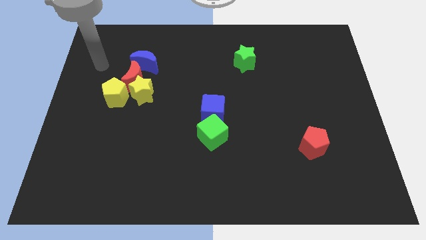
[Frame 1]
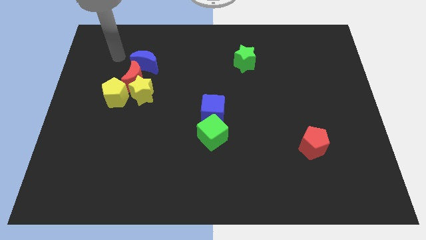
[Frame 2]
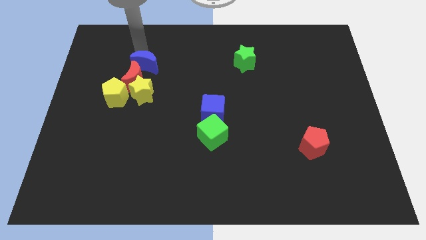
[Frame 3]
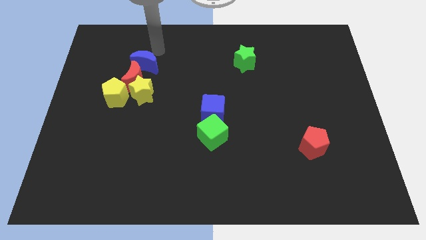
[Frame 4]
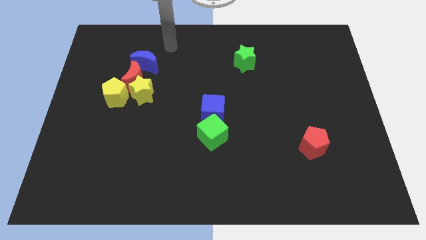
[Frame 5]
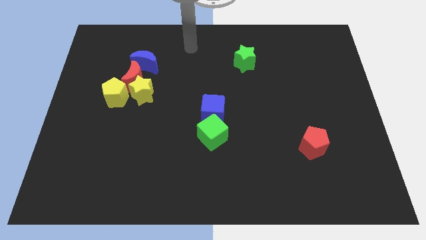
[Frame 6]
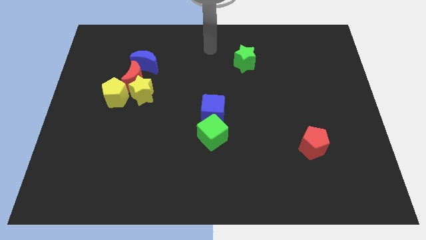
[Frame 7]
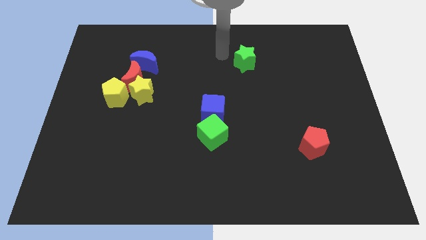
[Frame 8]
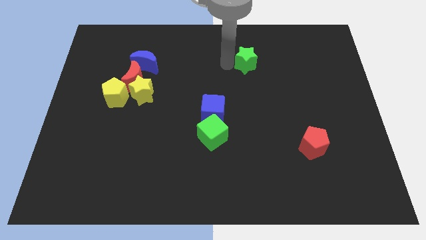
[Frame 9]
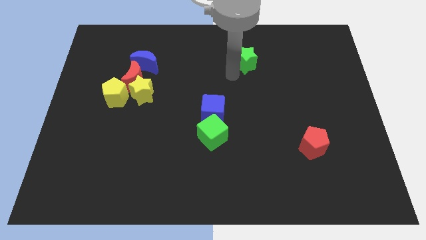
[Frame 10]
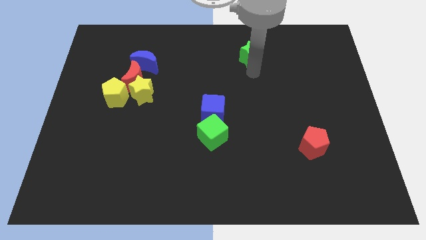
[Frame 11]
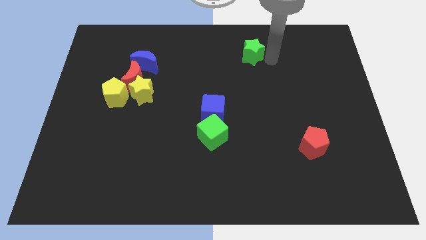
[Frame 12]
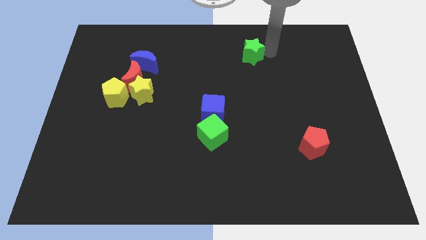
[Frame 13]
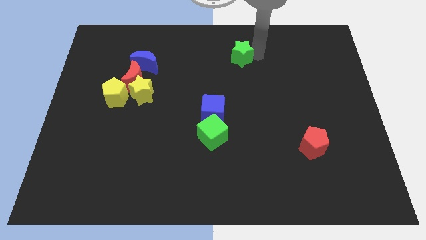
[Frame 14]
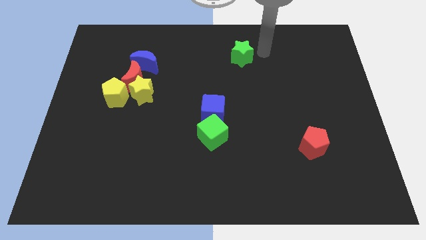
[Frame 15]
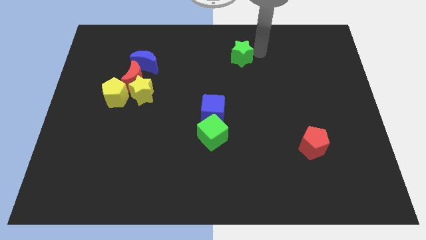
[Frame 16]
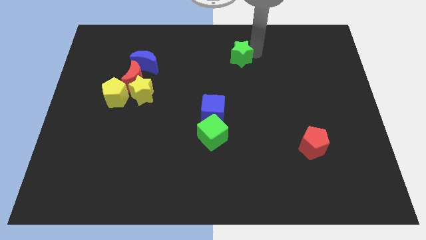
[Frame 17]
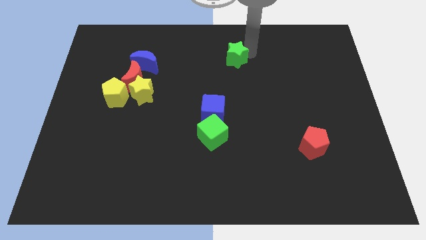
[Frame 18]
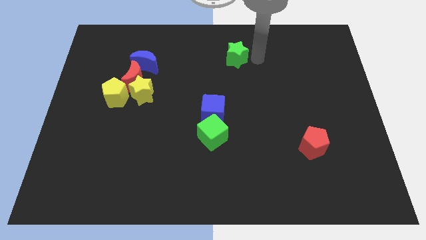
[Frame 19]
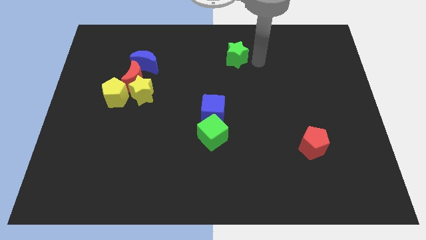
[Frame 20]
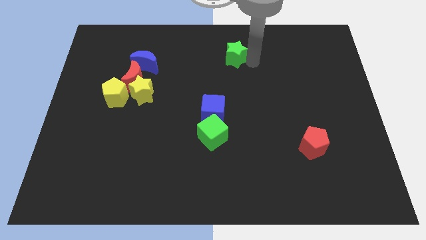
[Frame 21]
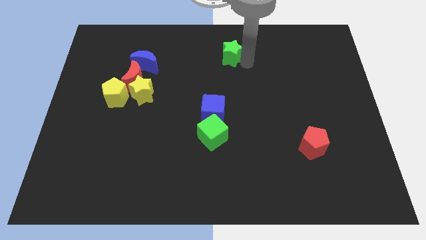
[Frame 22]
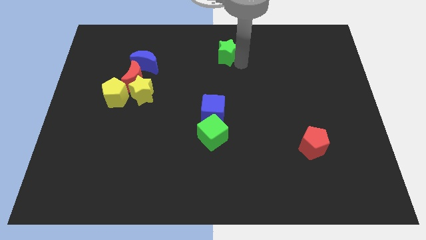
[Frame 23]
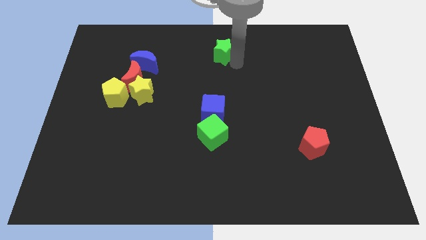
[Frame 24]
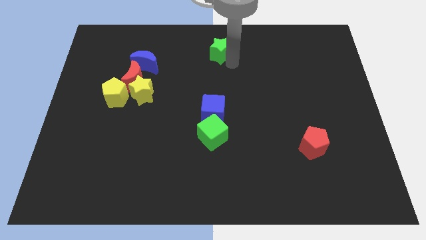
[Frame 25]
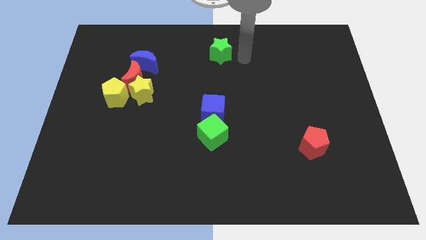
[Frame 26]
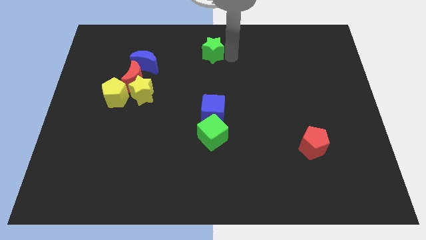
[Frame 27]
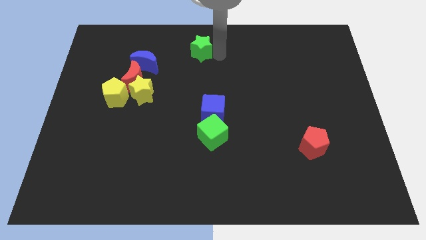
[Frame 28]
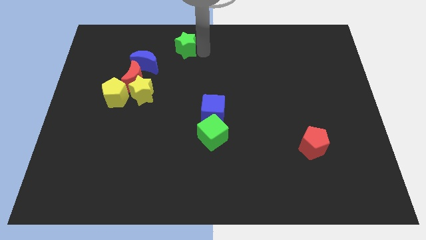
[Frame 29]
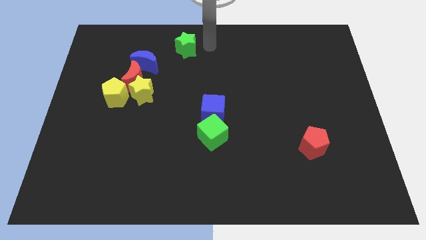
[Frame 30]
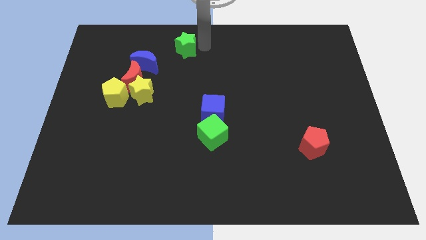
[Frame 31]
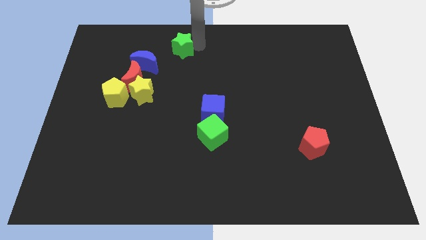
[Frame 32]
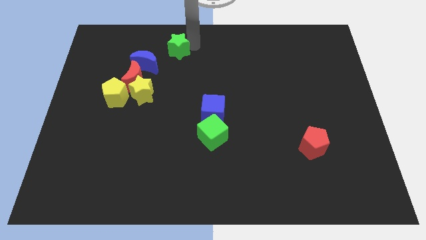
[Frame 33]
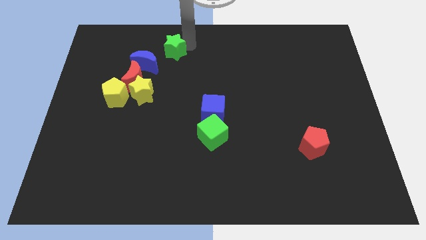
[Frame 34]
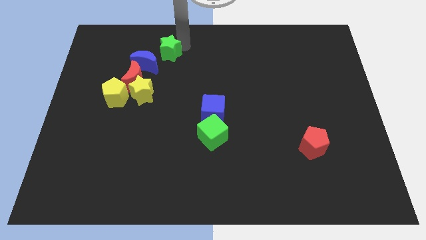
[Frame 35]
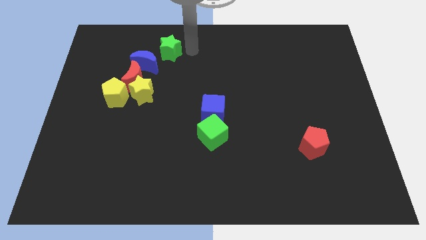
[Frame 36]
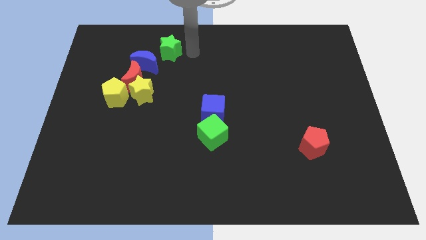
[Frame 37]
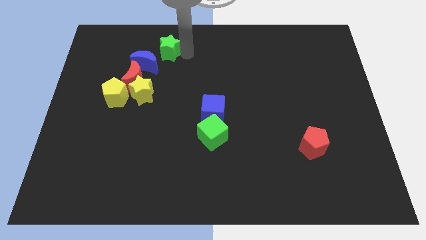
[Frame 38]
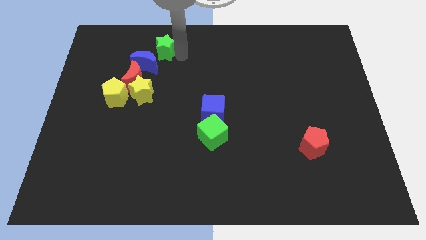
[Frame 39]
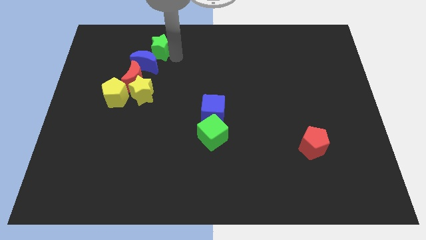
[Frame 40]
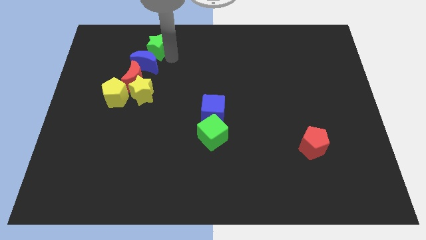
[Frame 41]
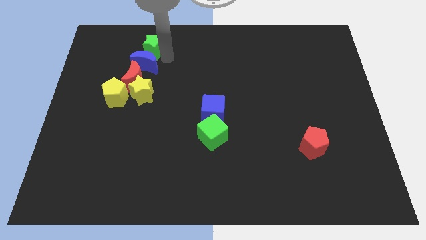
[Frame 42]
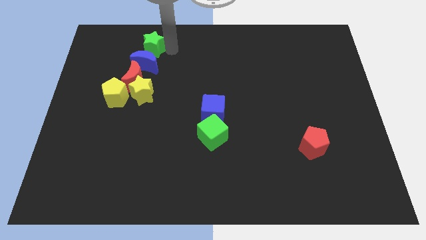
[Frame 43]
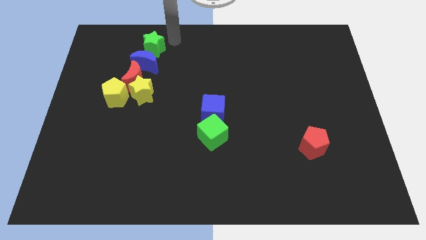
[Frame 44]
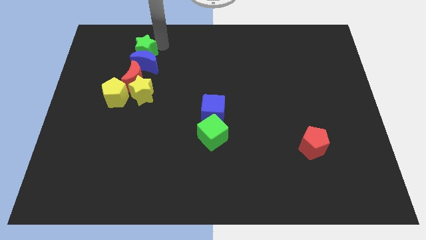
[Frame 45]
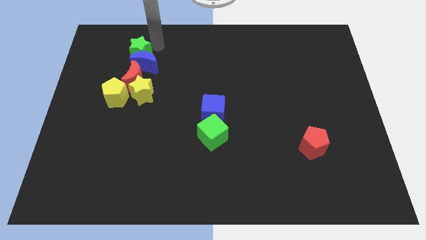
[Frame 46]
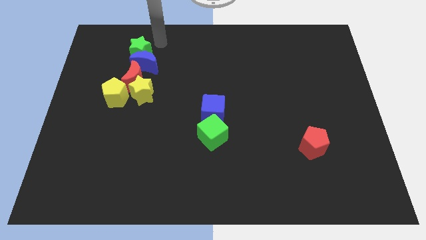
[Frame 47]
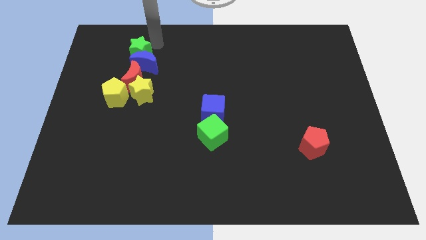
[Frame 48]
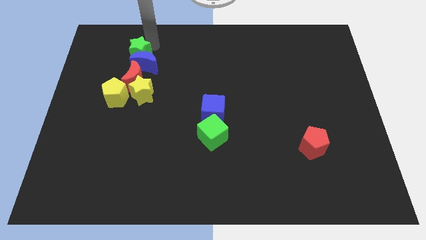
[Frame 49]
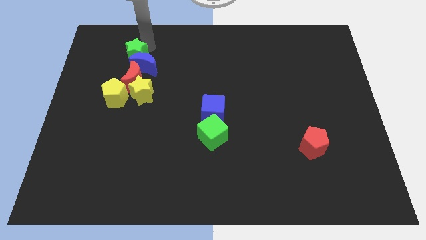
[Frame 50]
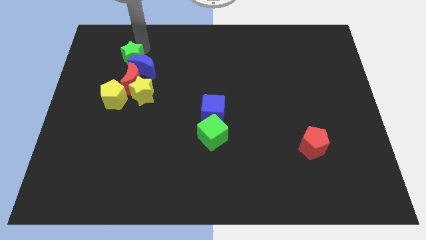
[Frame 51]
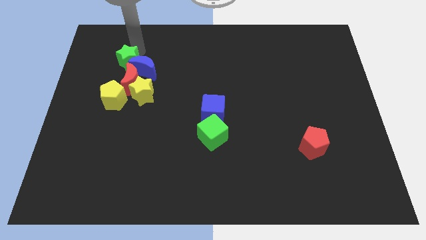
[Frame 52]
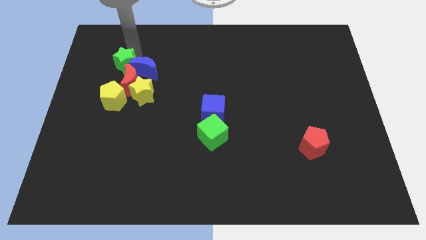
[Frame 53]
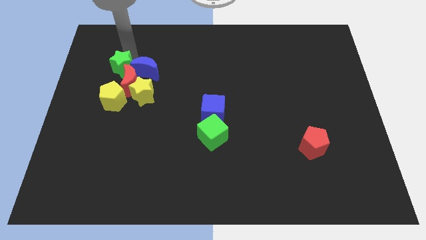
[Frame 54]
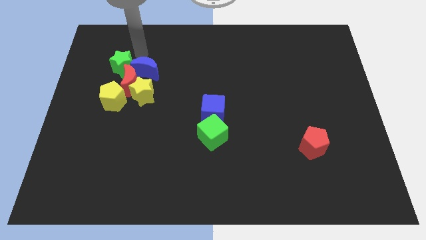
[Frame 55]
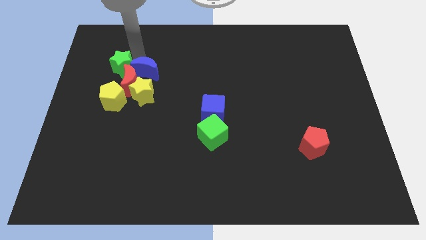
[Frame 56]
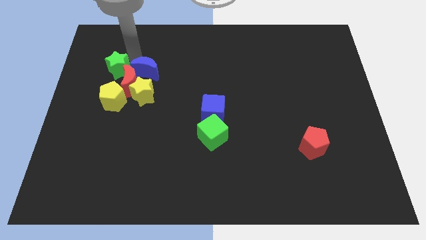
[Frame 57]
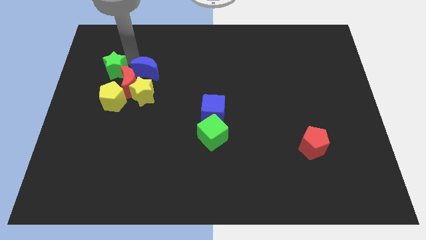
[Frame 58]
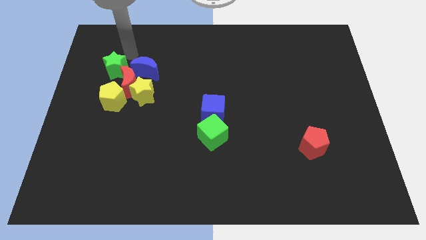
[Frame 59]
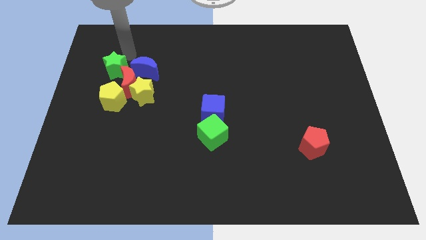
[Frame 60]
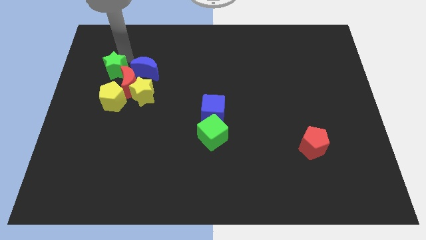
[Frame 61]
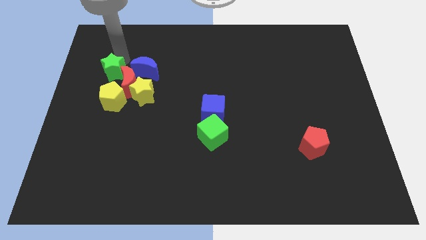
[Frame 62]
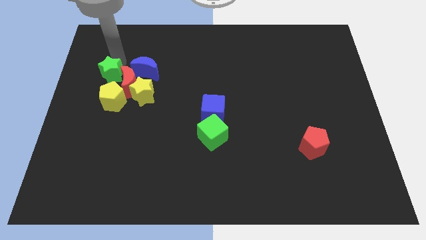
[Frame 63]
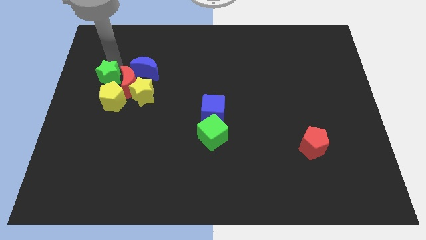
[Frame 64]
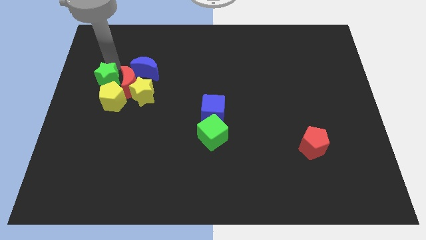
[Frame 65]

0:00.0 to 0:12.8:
slide the green star just left of the yellow star

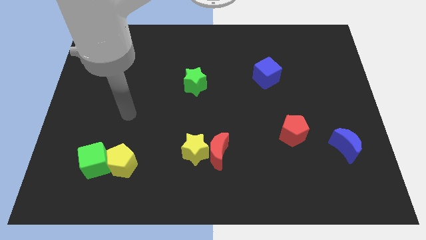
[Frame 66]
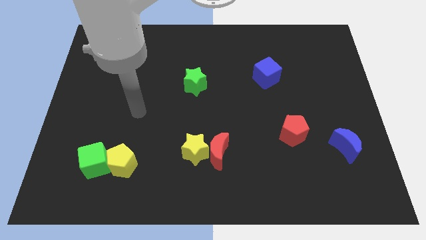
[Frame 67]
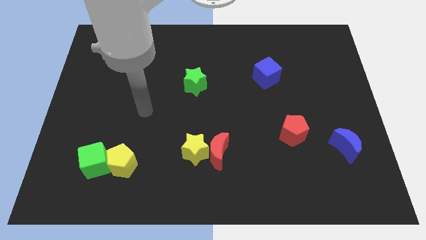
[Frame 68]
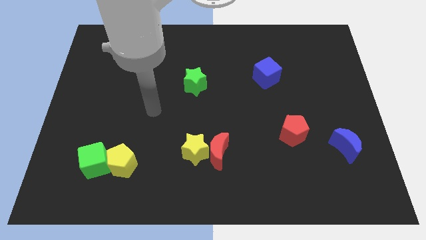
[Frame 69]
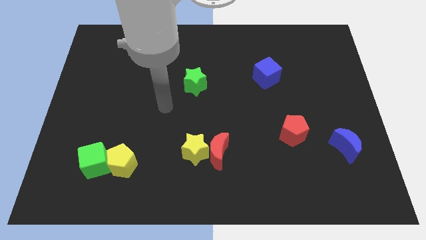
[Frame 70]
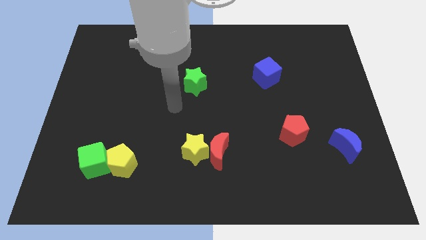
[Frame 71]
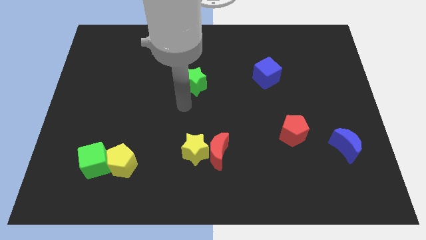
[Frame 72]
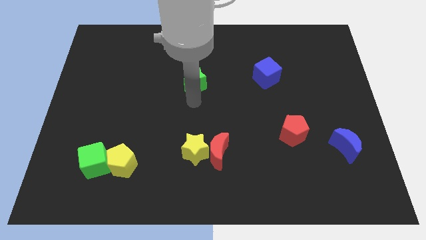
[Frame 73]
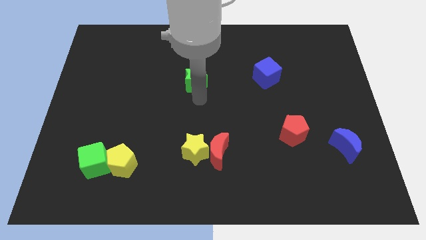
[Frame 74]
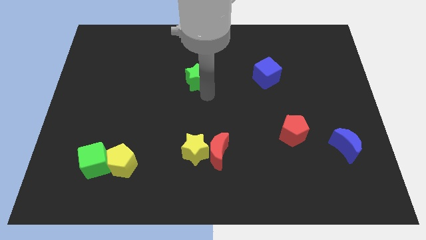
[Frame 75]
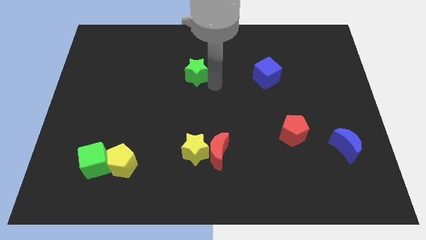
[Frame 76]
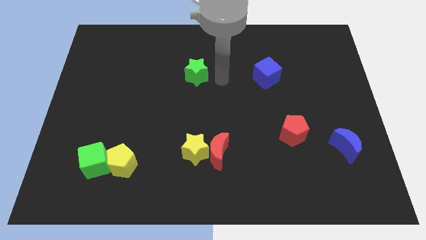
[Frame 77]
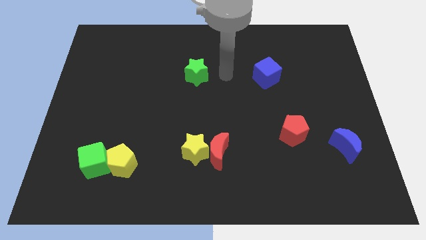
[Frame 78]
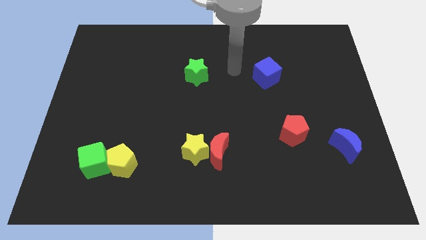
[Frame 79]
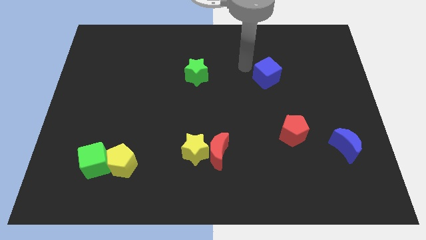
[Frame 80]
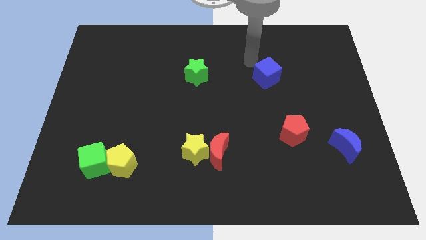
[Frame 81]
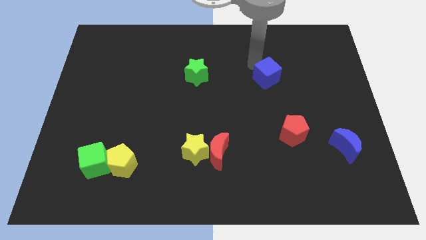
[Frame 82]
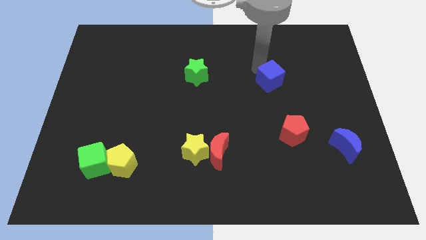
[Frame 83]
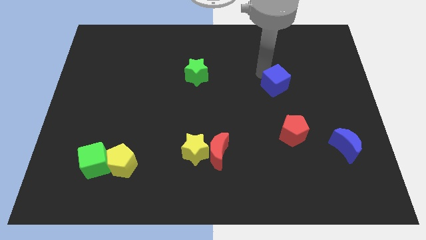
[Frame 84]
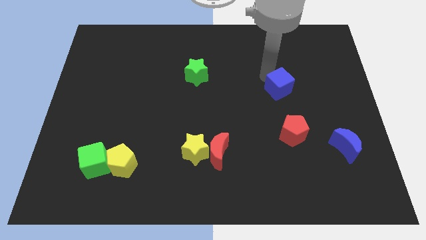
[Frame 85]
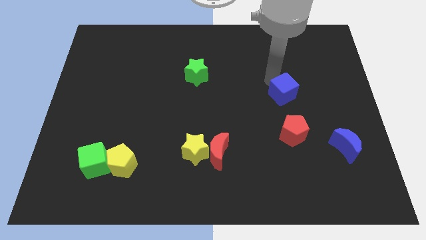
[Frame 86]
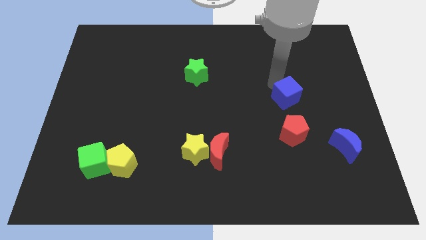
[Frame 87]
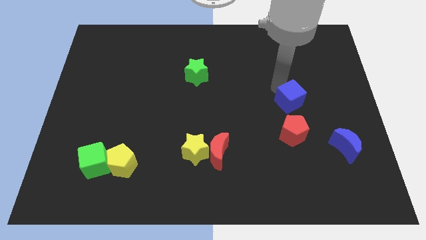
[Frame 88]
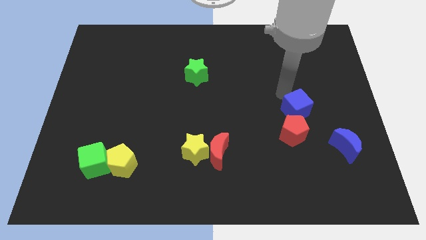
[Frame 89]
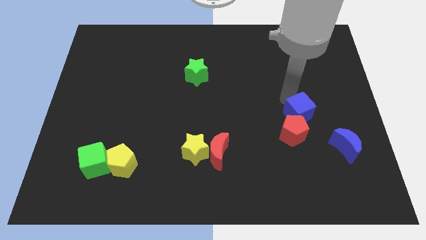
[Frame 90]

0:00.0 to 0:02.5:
slide the blue cube to the top left of the blue moon
